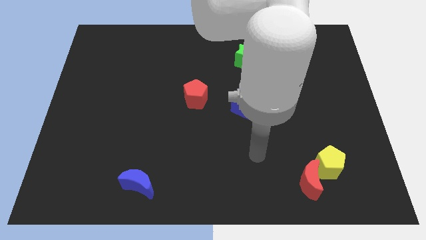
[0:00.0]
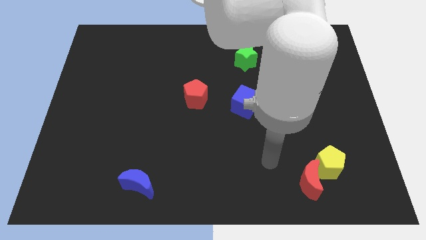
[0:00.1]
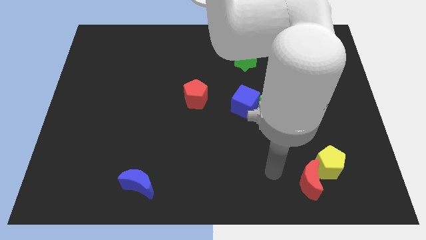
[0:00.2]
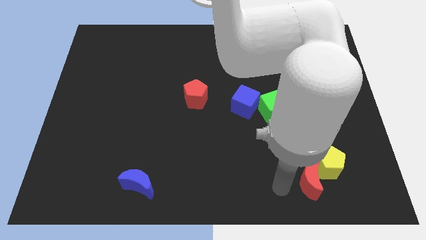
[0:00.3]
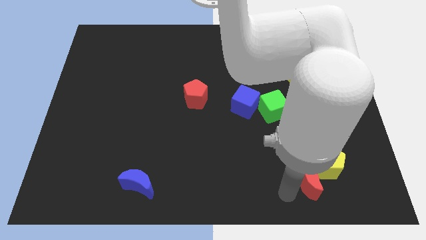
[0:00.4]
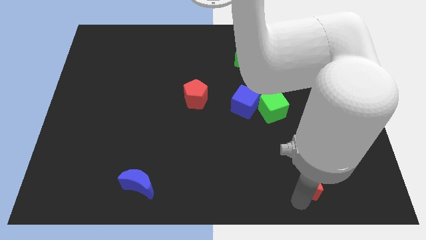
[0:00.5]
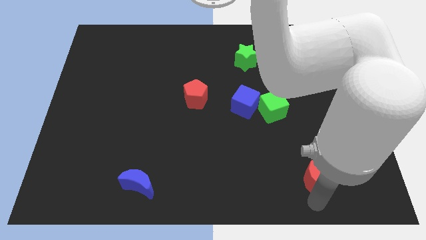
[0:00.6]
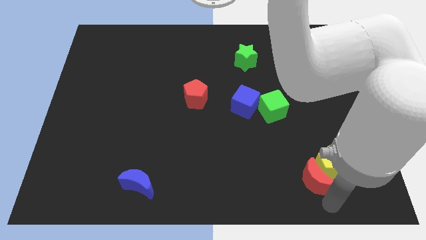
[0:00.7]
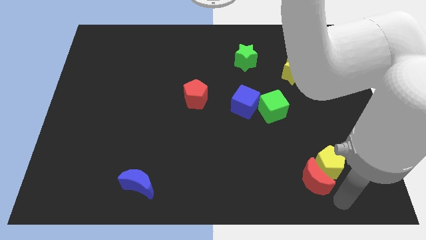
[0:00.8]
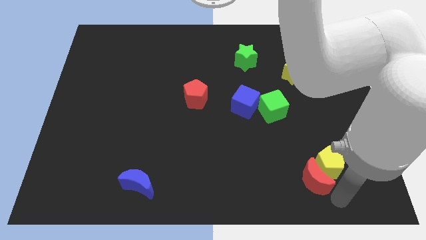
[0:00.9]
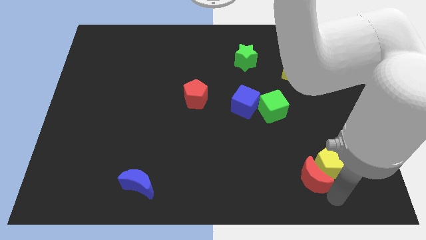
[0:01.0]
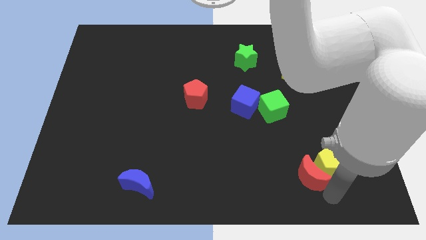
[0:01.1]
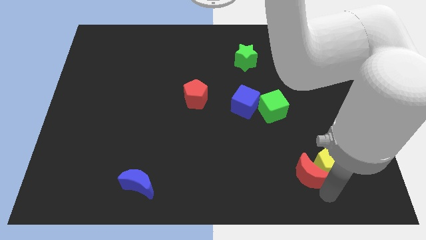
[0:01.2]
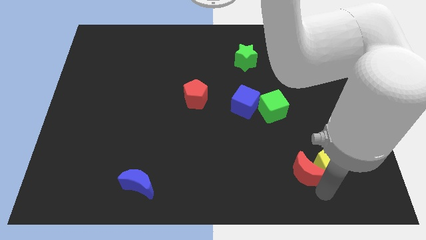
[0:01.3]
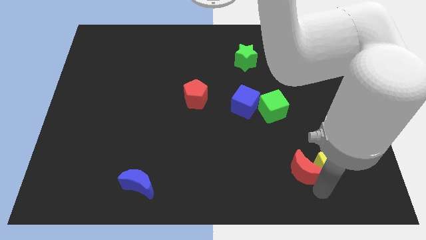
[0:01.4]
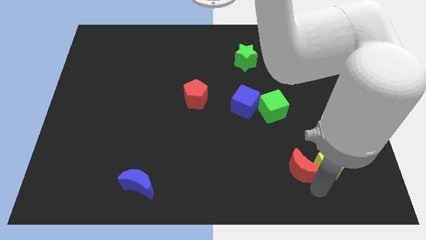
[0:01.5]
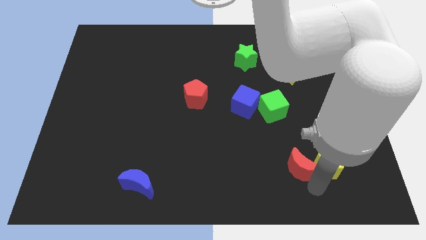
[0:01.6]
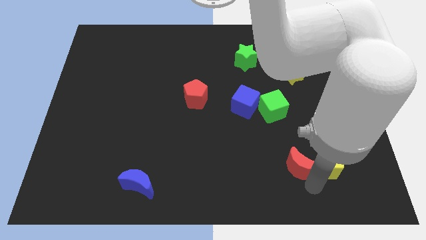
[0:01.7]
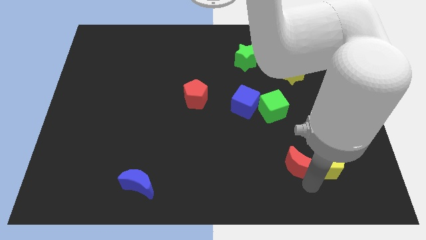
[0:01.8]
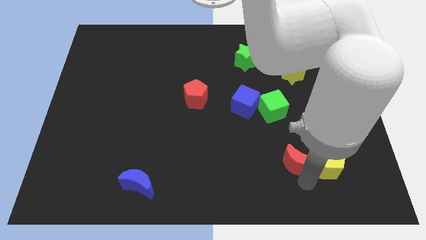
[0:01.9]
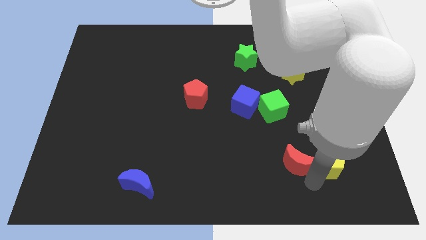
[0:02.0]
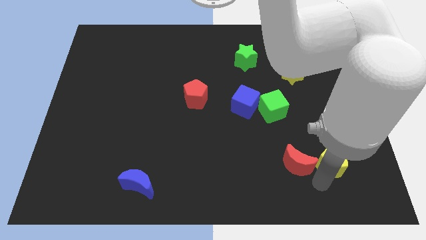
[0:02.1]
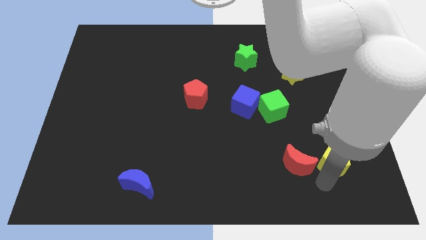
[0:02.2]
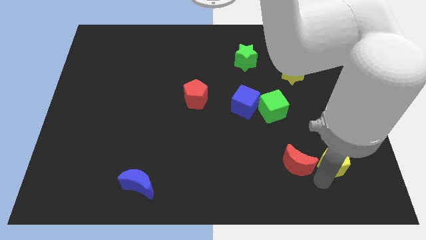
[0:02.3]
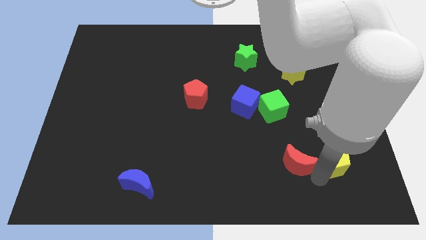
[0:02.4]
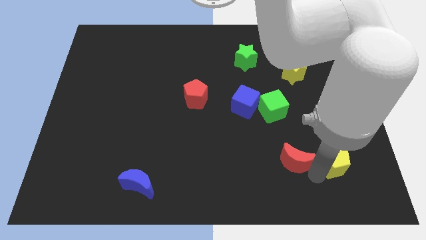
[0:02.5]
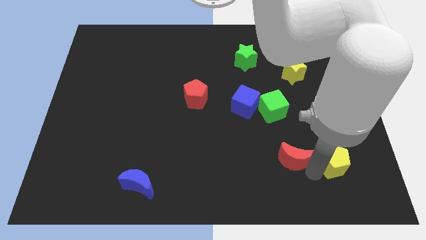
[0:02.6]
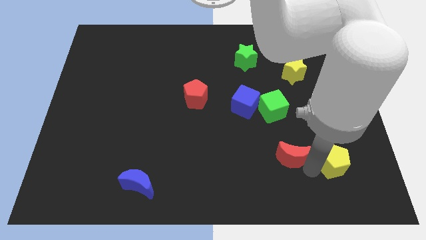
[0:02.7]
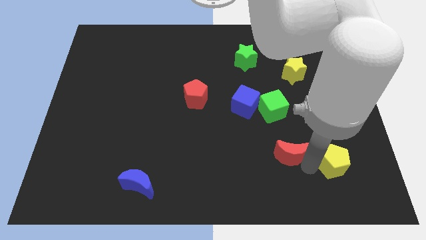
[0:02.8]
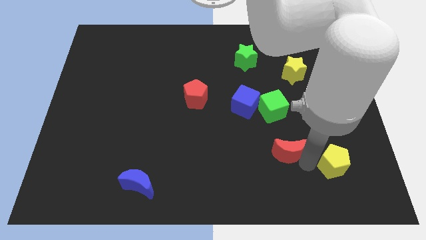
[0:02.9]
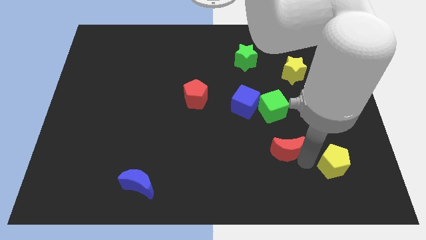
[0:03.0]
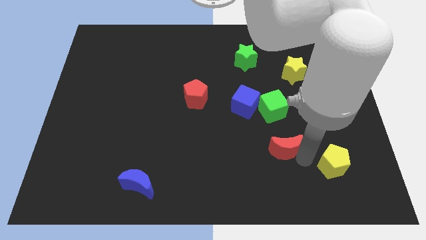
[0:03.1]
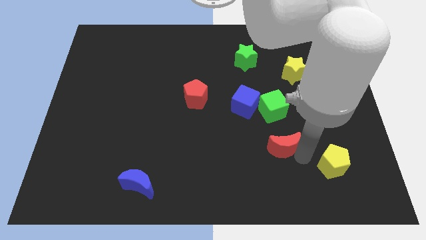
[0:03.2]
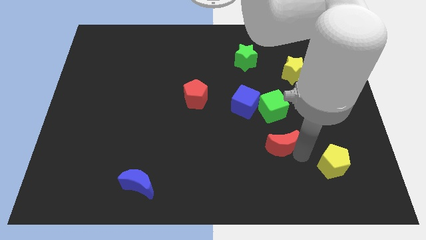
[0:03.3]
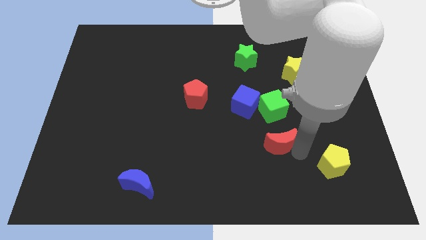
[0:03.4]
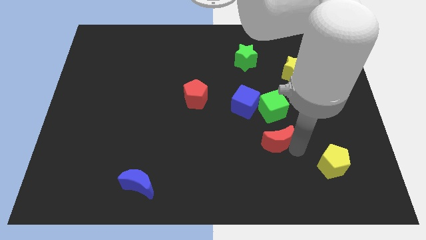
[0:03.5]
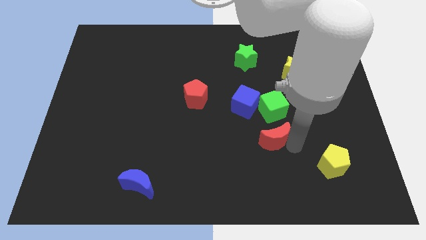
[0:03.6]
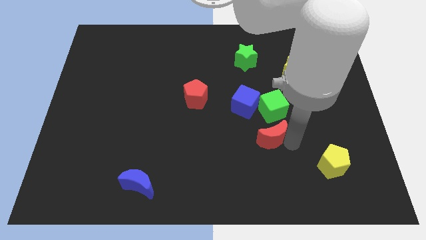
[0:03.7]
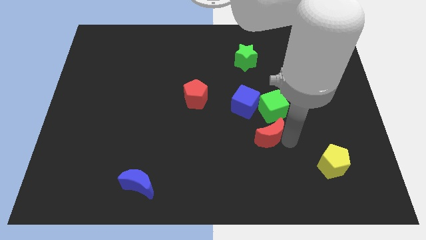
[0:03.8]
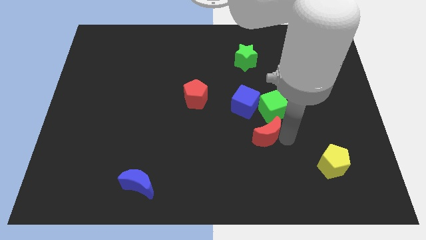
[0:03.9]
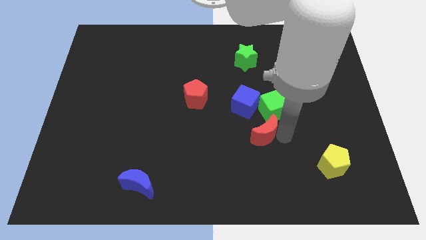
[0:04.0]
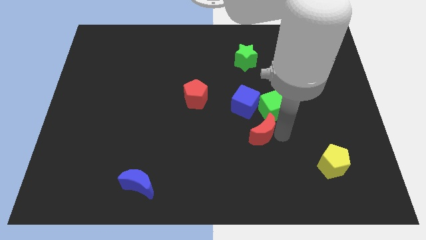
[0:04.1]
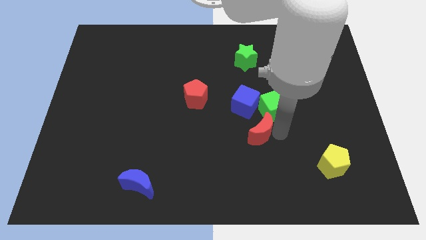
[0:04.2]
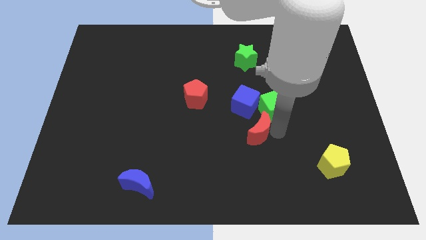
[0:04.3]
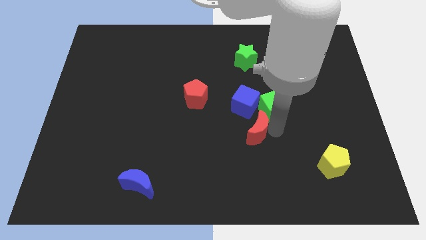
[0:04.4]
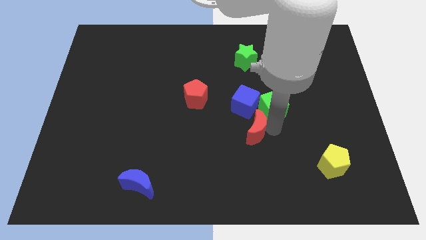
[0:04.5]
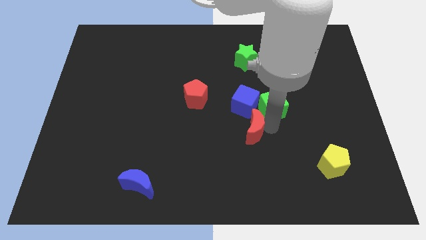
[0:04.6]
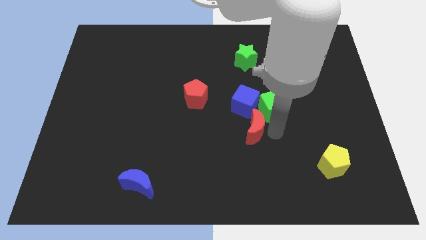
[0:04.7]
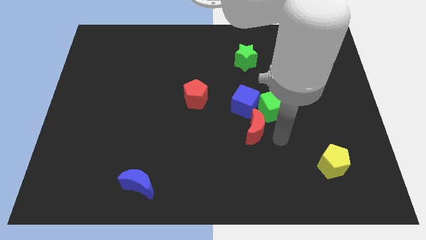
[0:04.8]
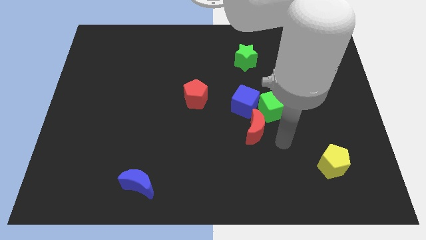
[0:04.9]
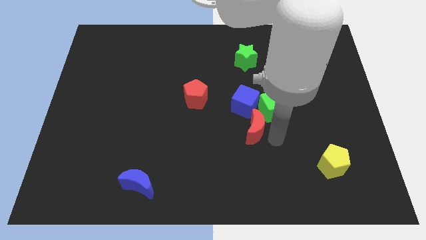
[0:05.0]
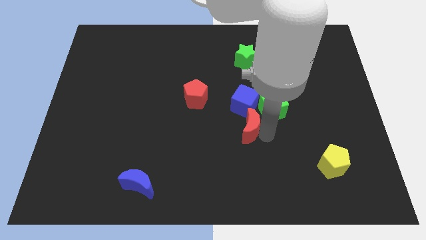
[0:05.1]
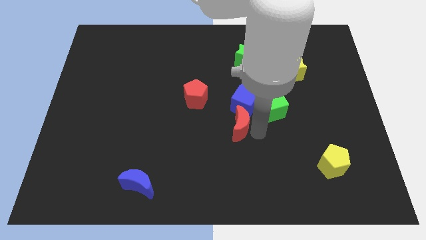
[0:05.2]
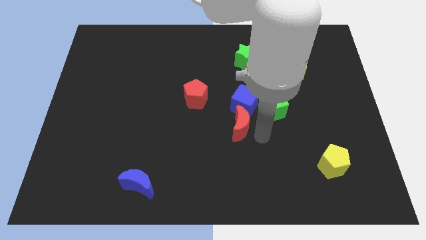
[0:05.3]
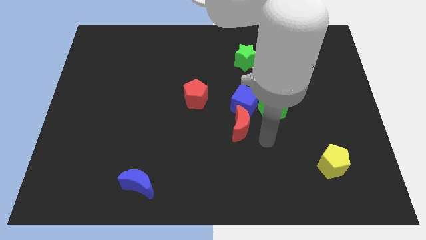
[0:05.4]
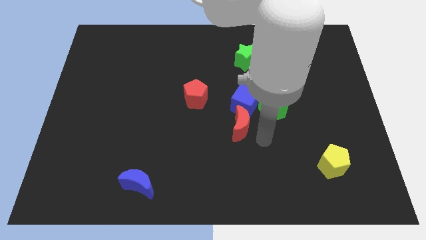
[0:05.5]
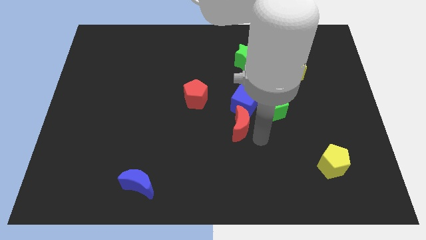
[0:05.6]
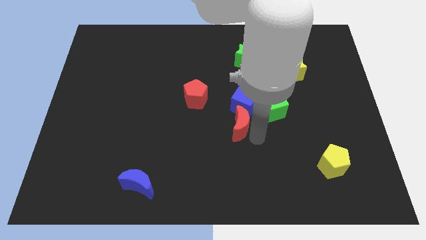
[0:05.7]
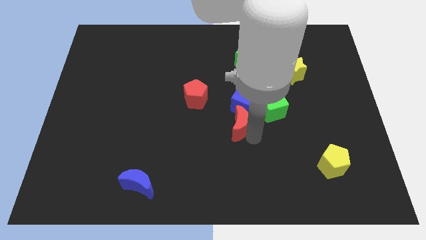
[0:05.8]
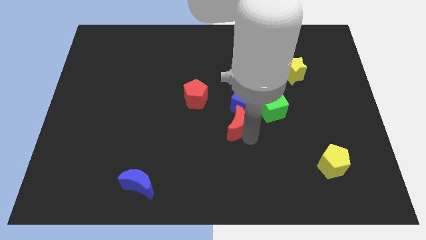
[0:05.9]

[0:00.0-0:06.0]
move the red moon to the bottom right of the red pentagon
